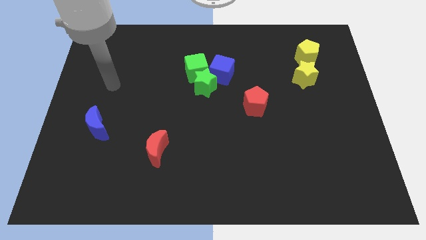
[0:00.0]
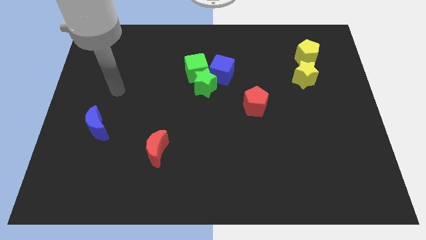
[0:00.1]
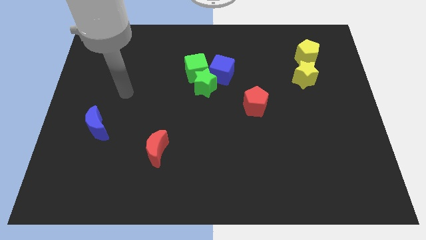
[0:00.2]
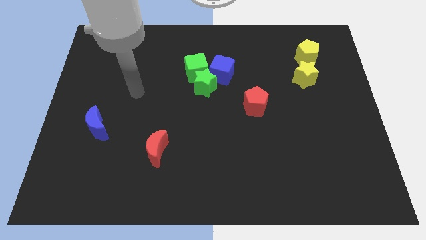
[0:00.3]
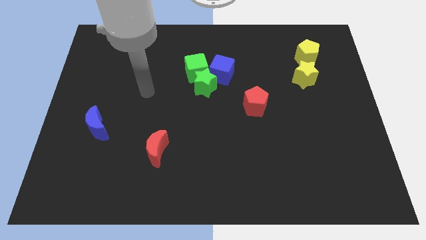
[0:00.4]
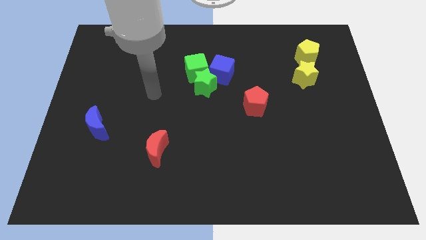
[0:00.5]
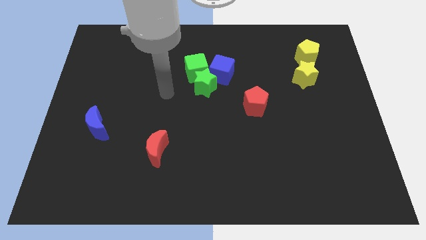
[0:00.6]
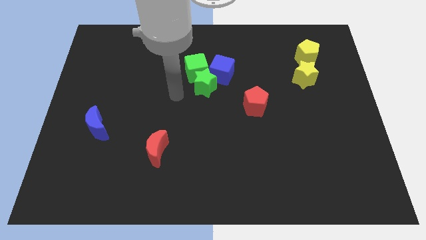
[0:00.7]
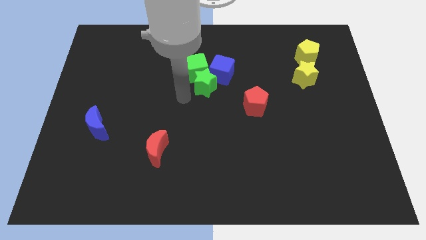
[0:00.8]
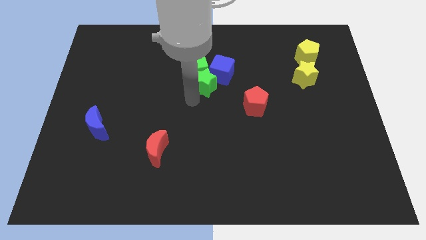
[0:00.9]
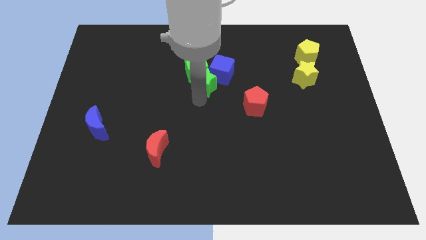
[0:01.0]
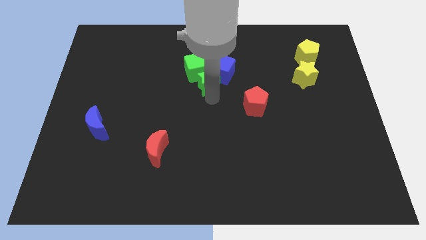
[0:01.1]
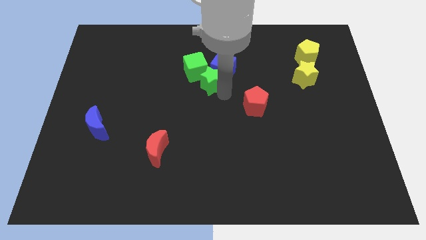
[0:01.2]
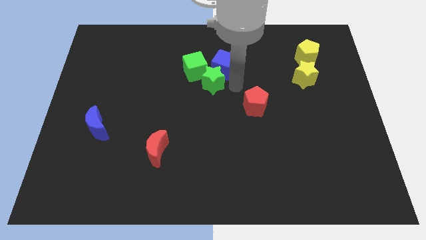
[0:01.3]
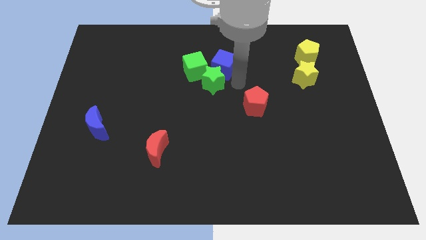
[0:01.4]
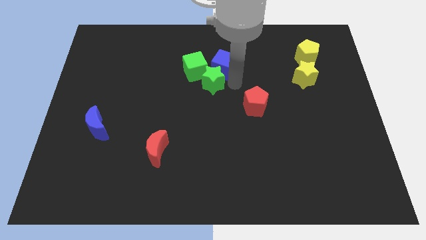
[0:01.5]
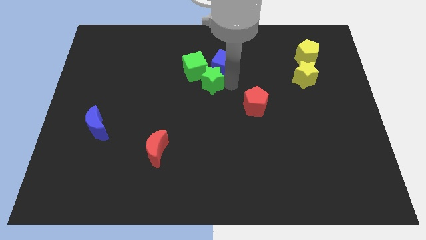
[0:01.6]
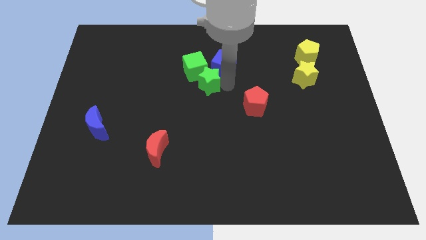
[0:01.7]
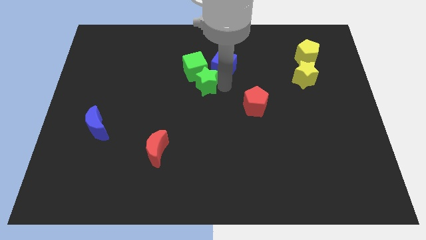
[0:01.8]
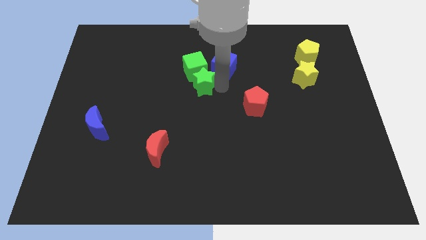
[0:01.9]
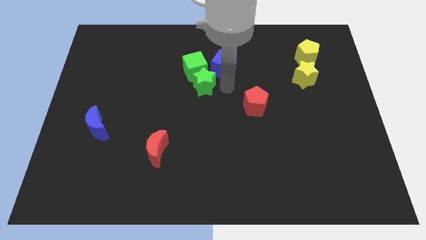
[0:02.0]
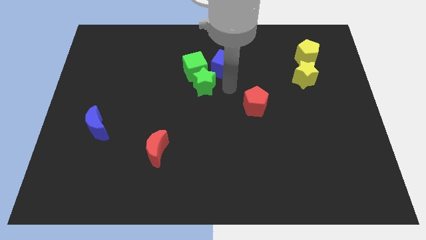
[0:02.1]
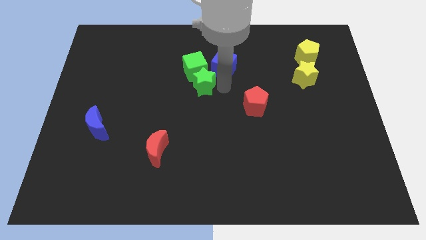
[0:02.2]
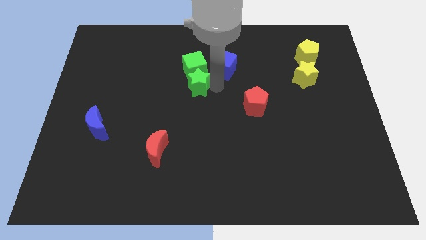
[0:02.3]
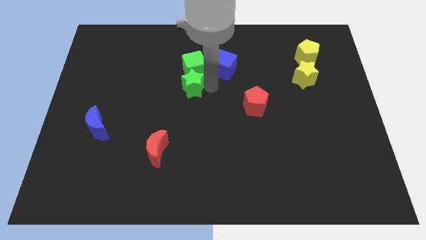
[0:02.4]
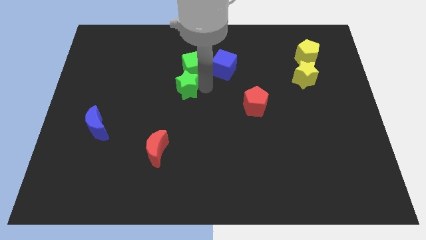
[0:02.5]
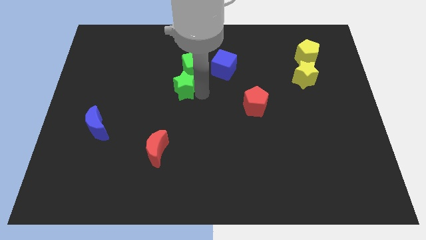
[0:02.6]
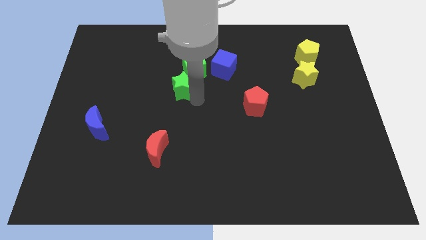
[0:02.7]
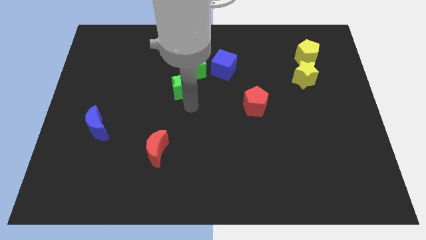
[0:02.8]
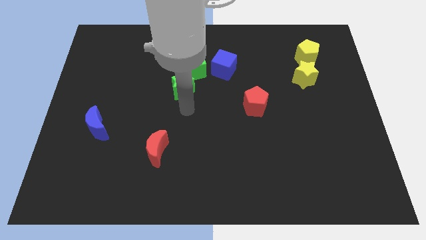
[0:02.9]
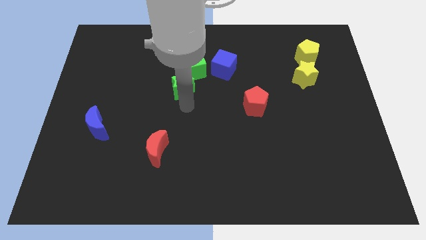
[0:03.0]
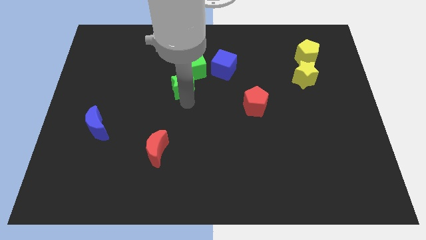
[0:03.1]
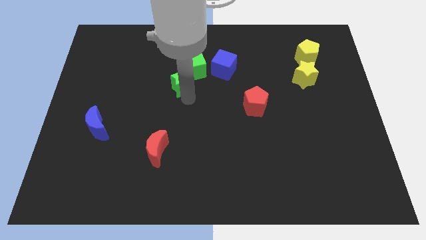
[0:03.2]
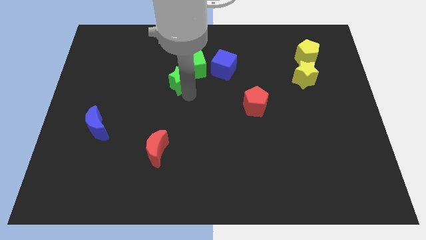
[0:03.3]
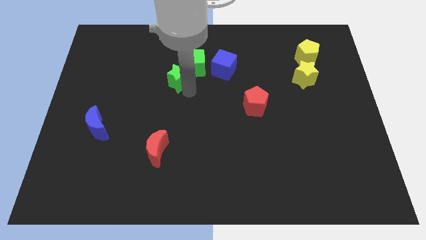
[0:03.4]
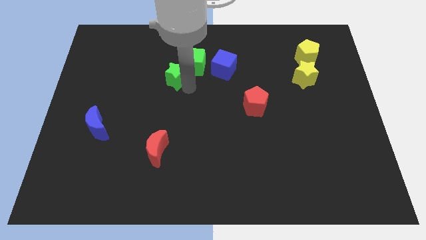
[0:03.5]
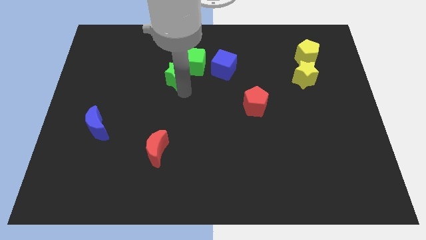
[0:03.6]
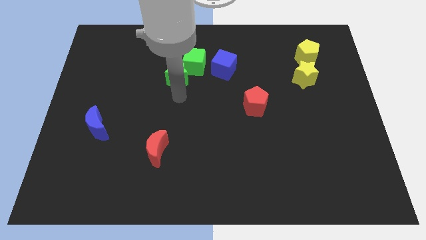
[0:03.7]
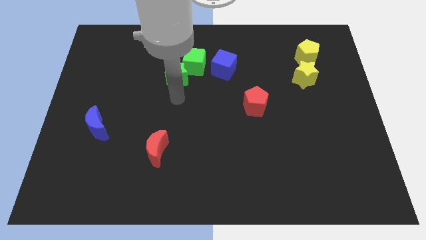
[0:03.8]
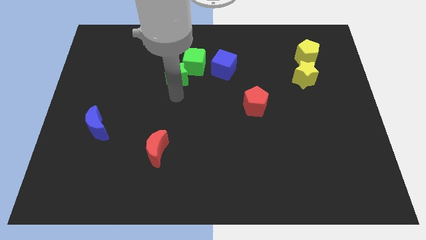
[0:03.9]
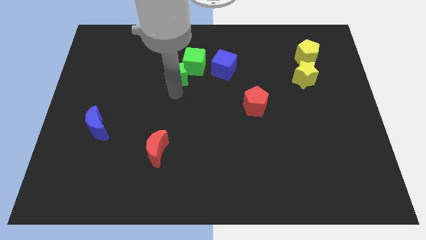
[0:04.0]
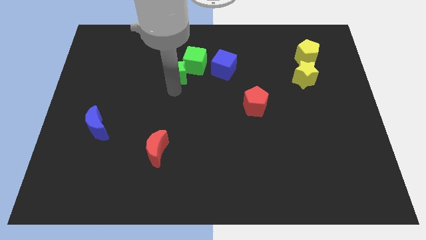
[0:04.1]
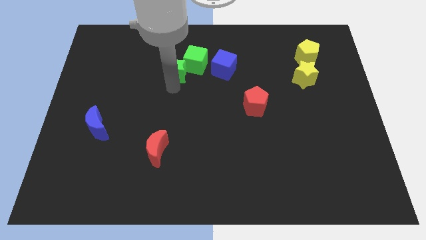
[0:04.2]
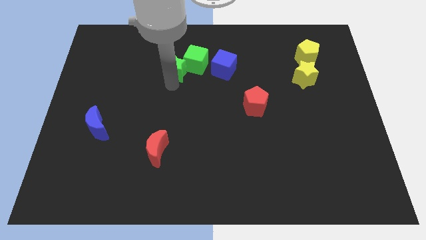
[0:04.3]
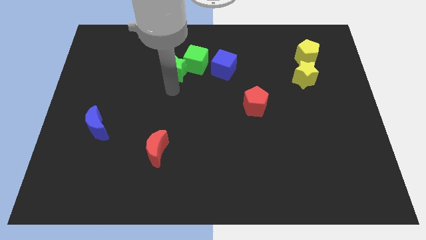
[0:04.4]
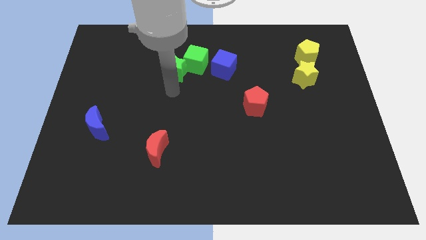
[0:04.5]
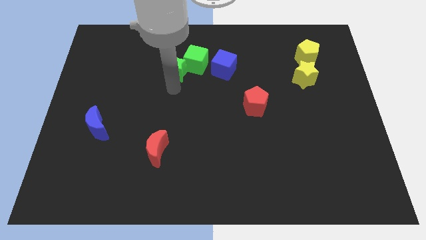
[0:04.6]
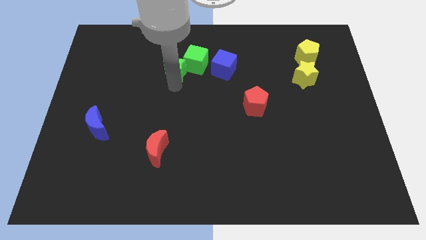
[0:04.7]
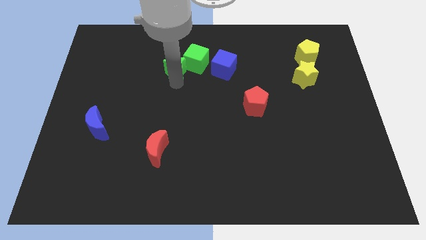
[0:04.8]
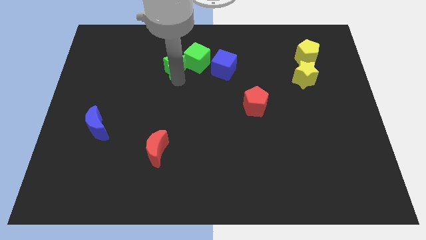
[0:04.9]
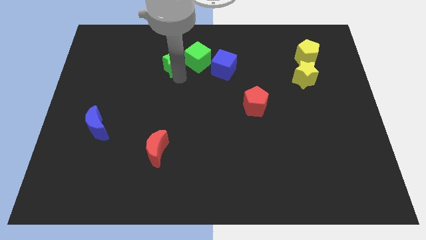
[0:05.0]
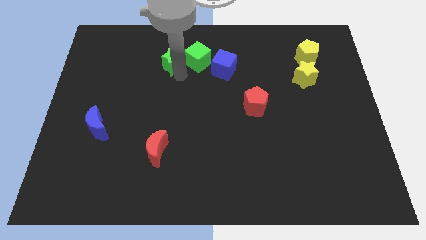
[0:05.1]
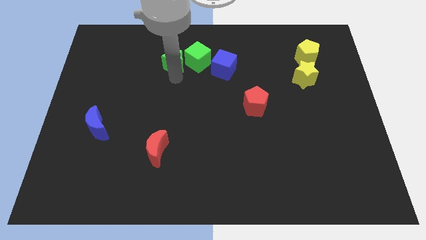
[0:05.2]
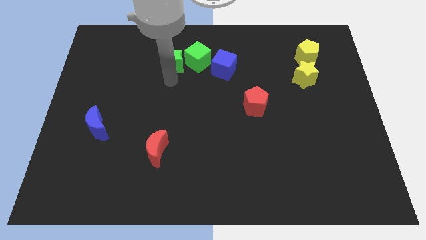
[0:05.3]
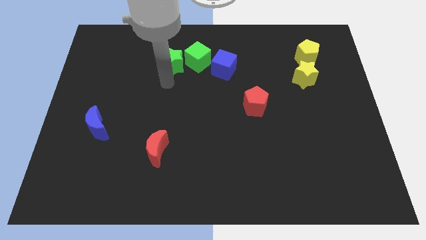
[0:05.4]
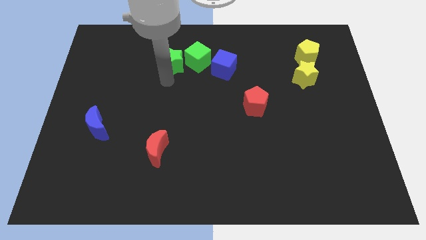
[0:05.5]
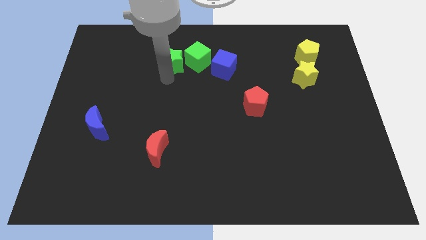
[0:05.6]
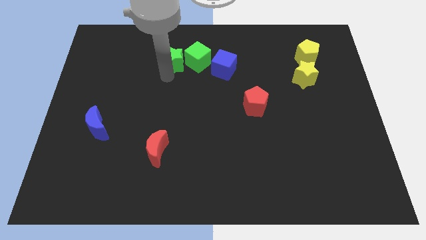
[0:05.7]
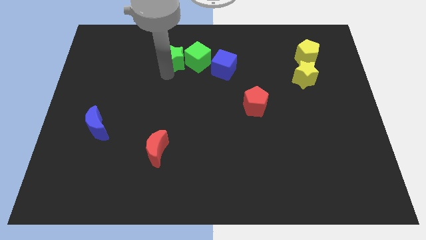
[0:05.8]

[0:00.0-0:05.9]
push the green star to the top left of the green cube
